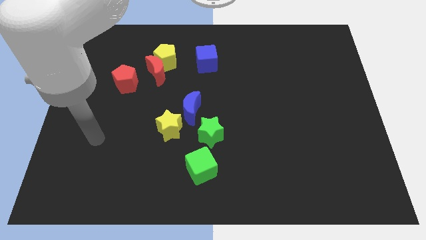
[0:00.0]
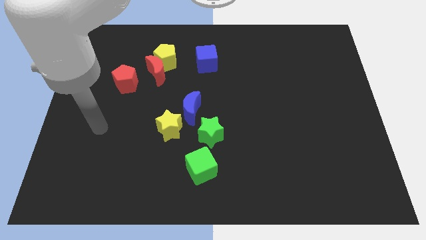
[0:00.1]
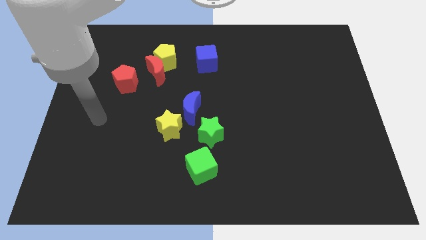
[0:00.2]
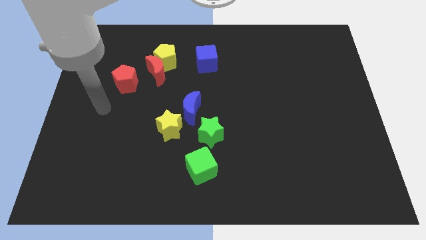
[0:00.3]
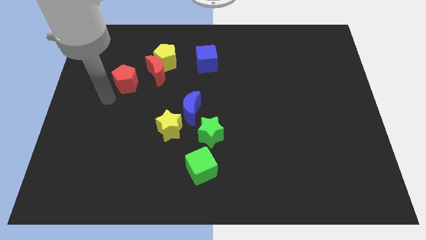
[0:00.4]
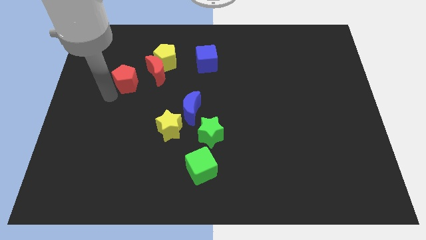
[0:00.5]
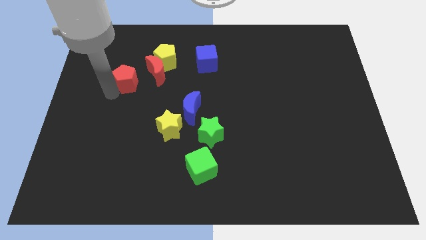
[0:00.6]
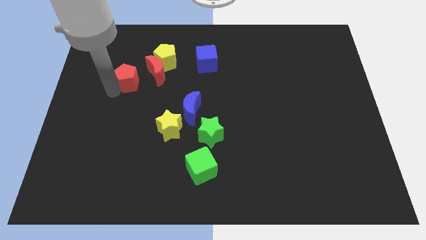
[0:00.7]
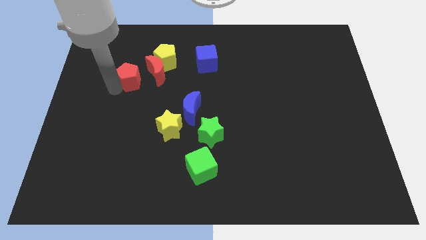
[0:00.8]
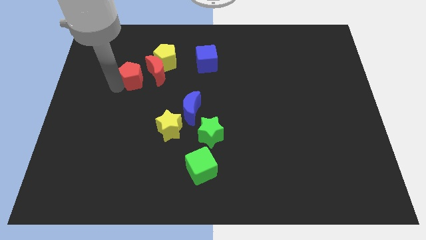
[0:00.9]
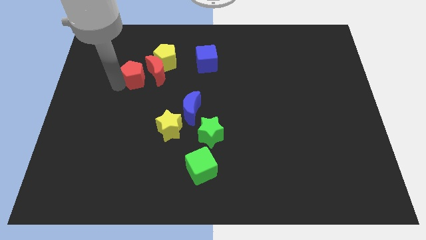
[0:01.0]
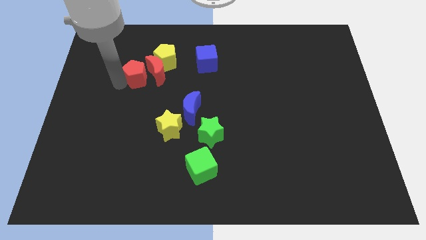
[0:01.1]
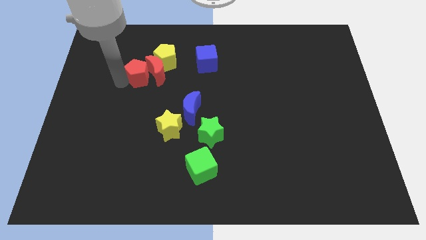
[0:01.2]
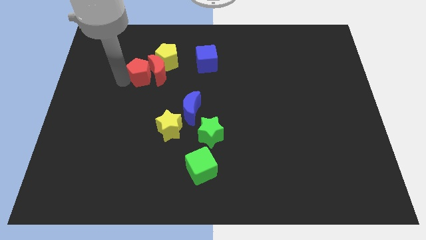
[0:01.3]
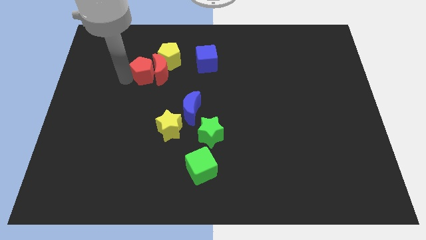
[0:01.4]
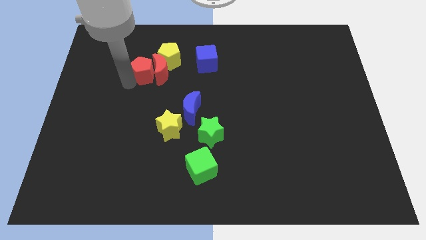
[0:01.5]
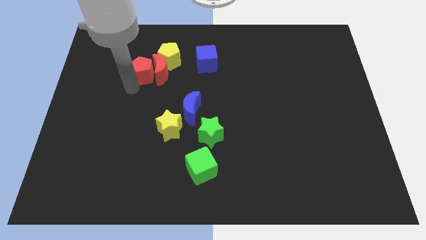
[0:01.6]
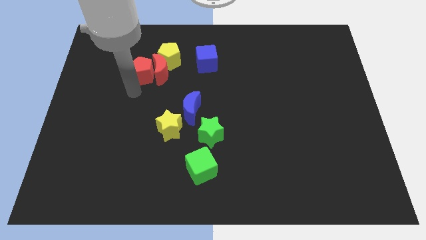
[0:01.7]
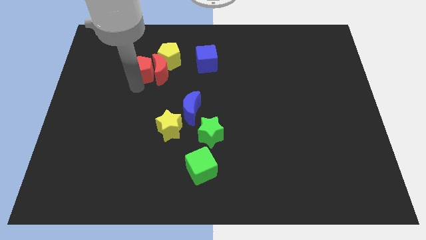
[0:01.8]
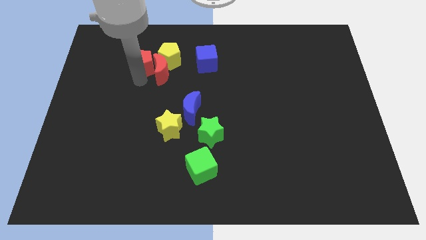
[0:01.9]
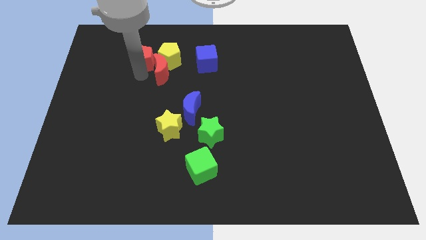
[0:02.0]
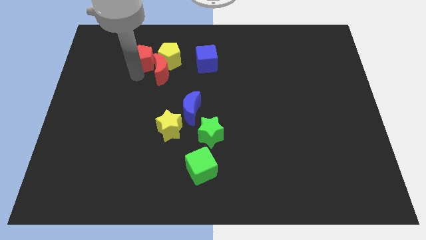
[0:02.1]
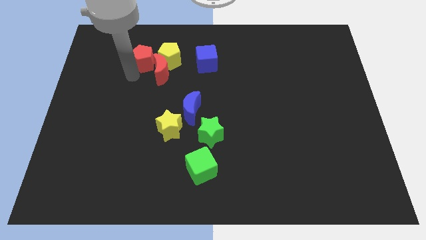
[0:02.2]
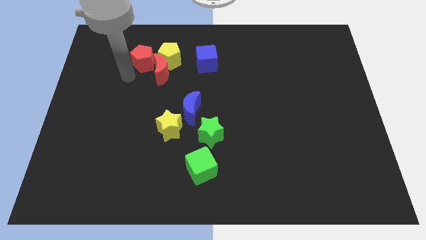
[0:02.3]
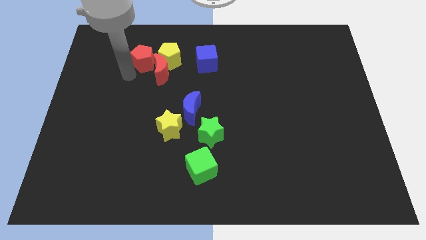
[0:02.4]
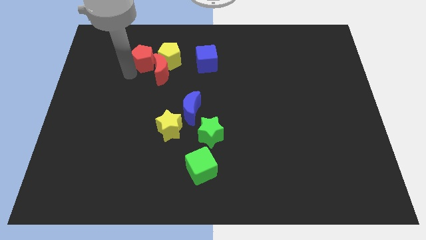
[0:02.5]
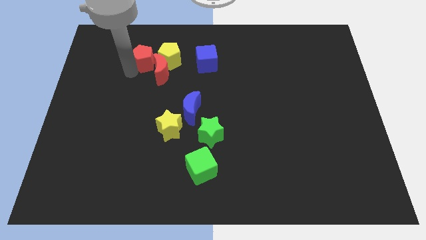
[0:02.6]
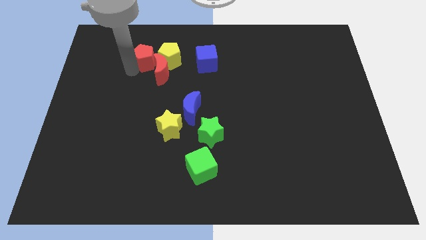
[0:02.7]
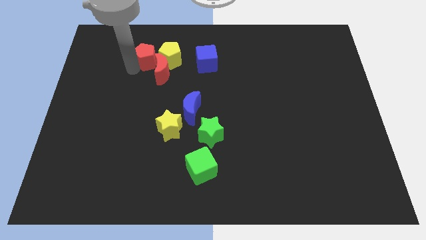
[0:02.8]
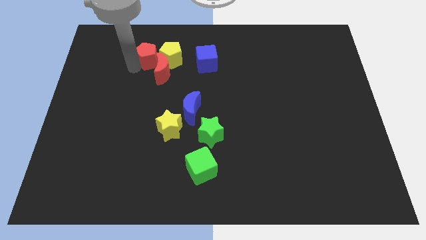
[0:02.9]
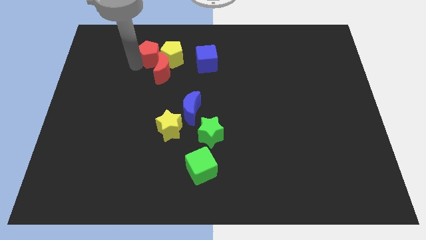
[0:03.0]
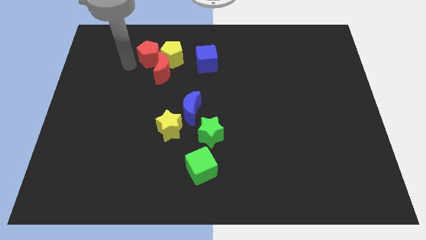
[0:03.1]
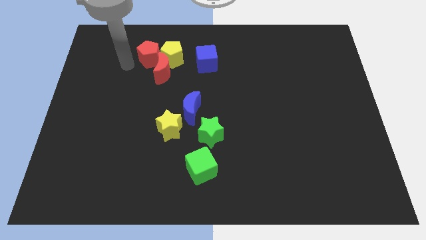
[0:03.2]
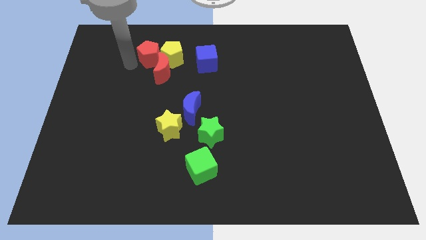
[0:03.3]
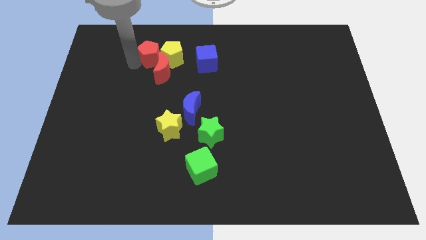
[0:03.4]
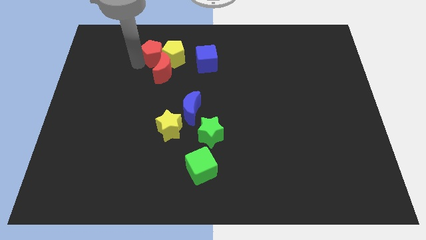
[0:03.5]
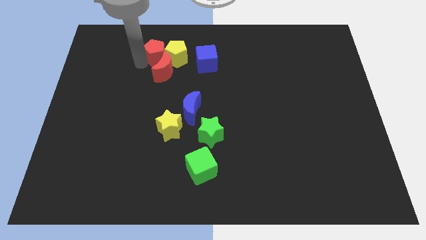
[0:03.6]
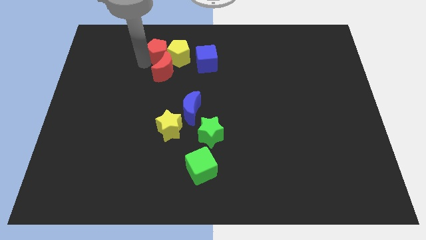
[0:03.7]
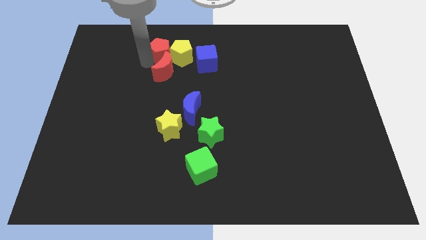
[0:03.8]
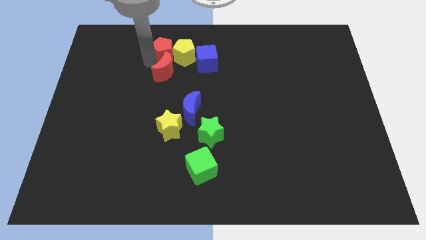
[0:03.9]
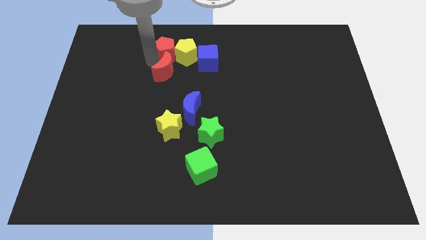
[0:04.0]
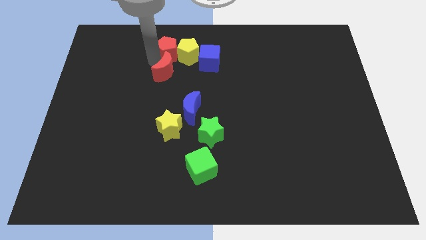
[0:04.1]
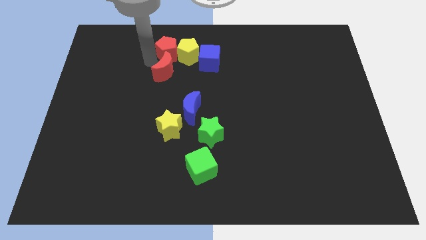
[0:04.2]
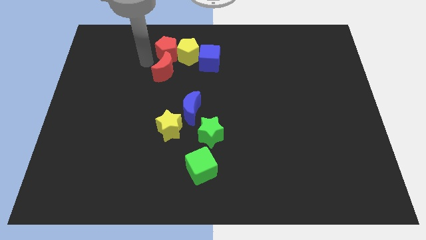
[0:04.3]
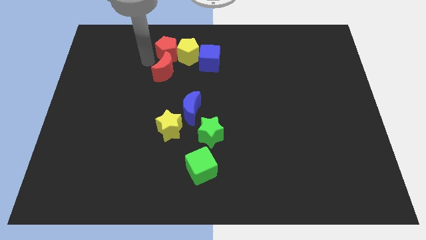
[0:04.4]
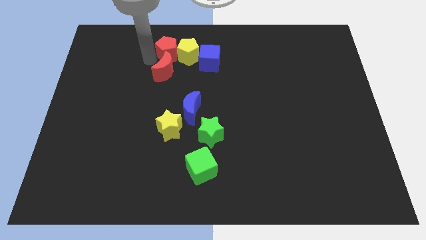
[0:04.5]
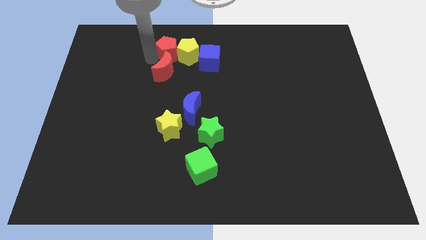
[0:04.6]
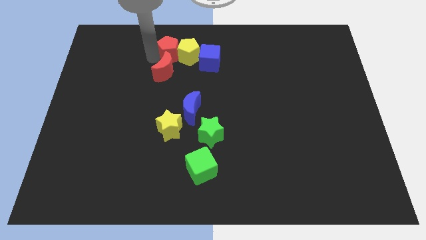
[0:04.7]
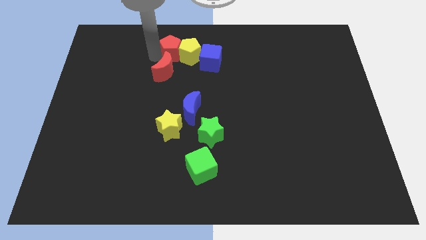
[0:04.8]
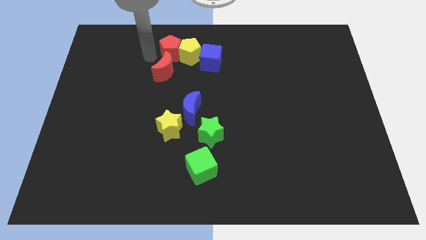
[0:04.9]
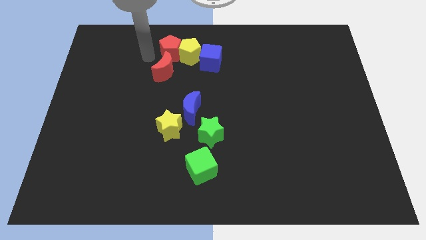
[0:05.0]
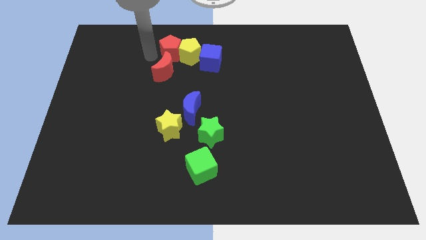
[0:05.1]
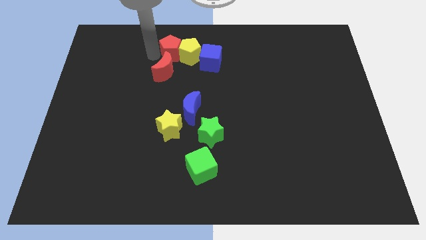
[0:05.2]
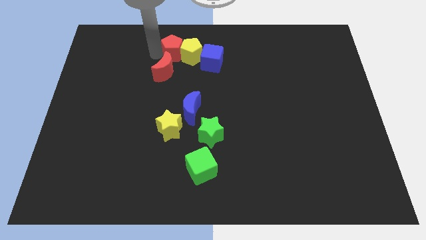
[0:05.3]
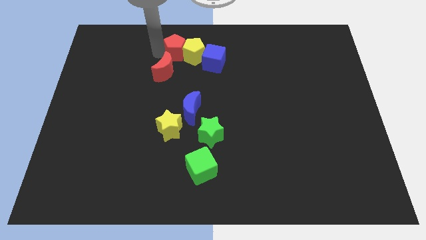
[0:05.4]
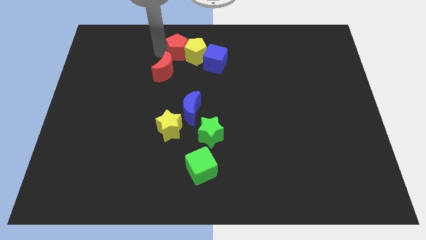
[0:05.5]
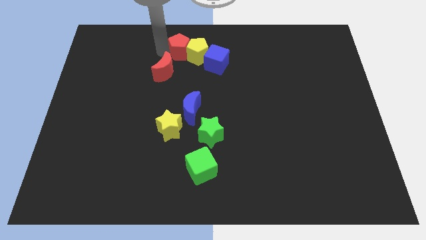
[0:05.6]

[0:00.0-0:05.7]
put the red pentagon to the top side

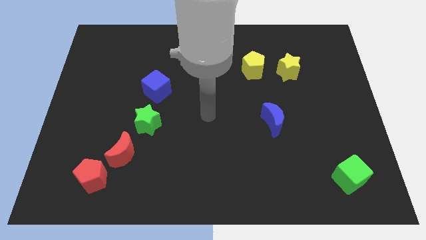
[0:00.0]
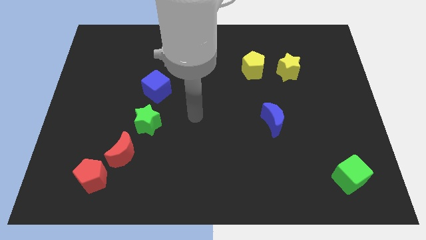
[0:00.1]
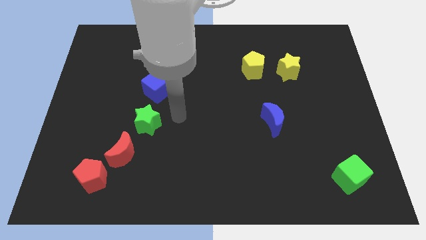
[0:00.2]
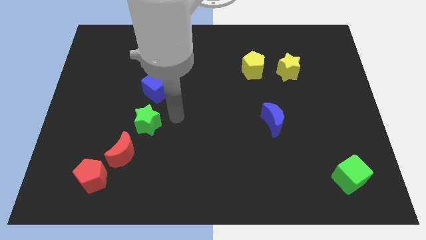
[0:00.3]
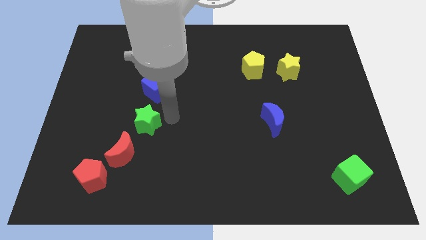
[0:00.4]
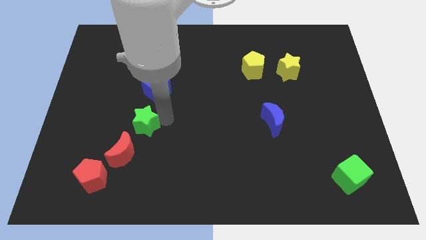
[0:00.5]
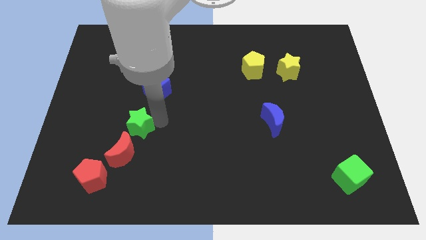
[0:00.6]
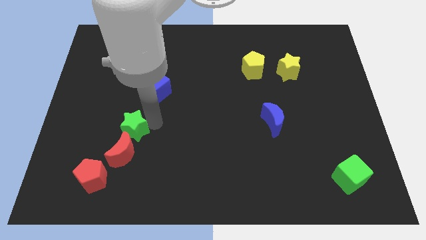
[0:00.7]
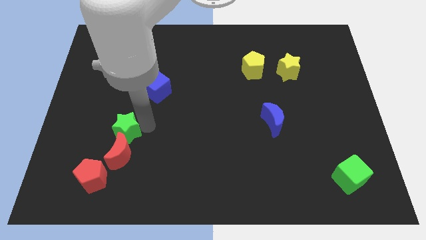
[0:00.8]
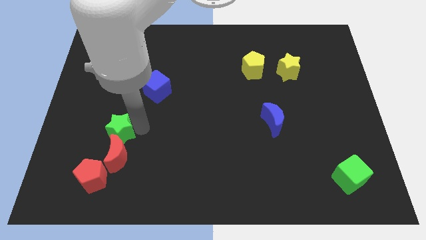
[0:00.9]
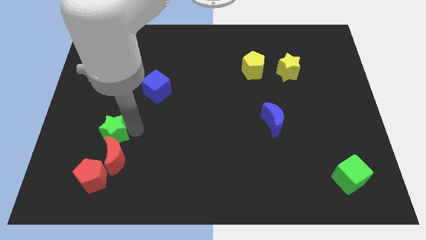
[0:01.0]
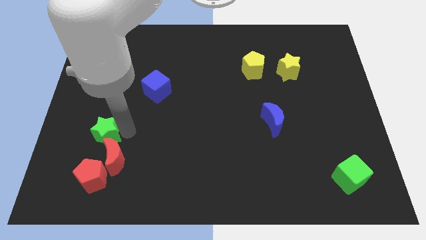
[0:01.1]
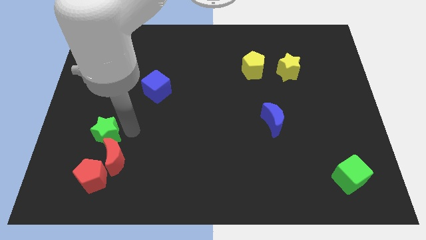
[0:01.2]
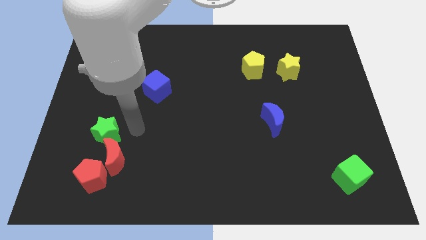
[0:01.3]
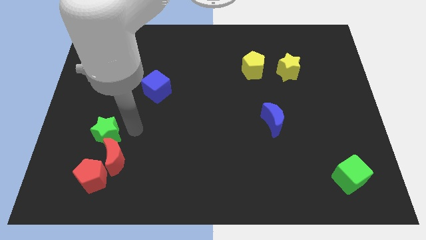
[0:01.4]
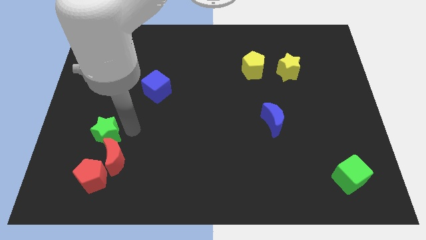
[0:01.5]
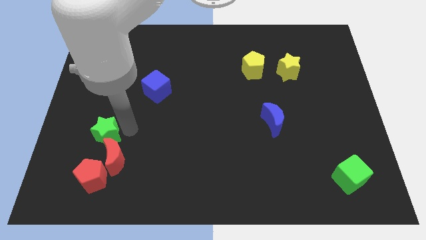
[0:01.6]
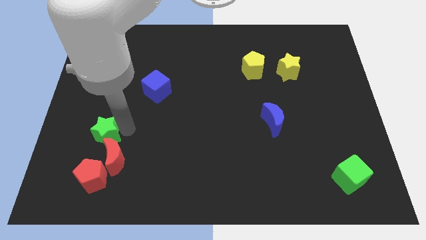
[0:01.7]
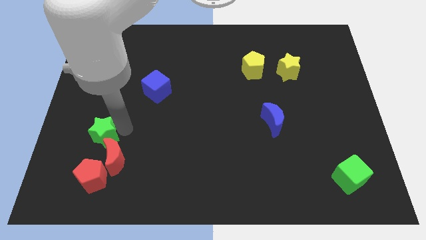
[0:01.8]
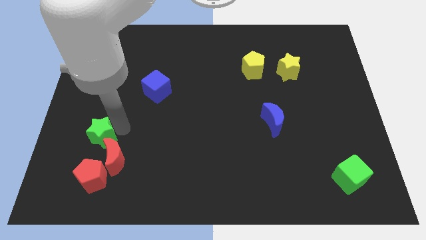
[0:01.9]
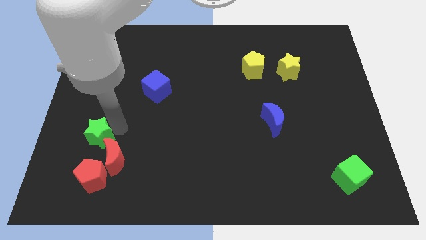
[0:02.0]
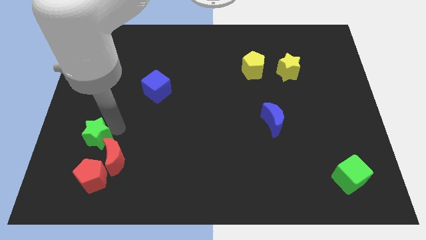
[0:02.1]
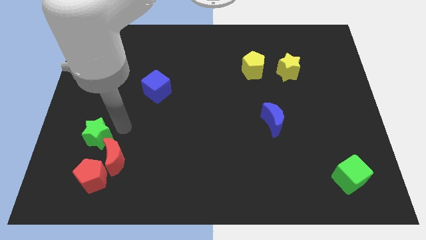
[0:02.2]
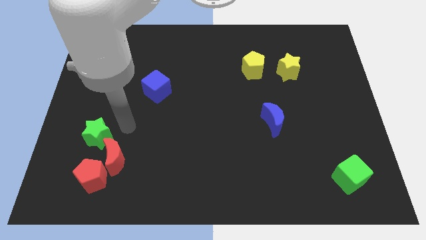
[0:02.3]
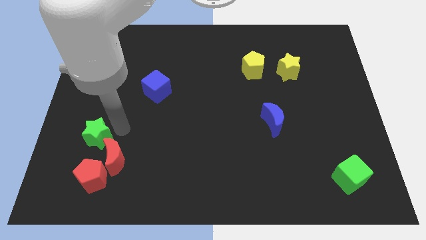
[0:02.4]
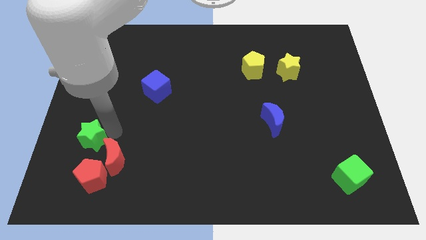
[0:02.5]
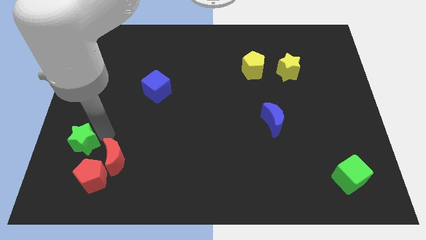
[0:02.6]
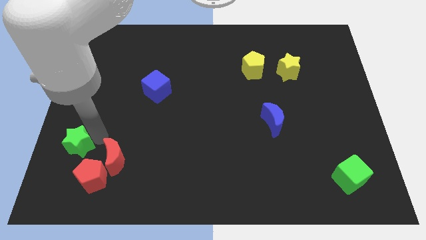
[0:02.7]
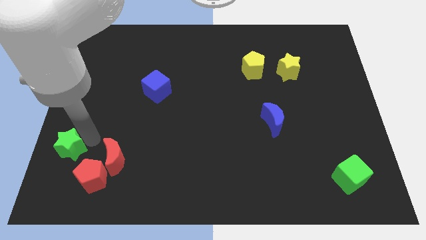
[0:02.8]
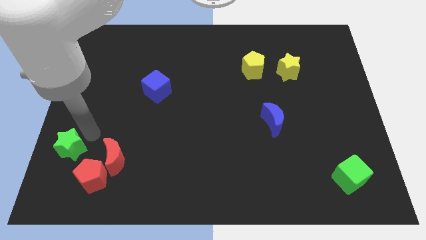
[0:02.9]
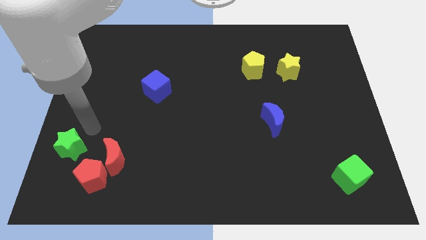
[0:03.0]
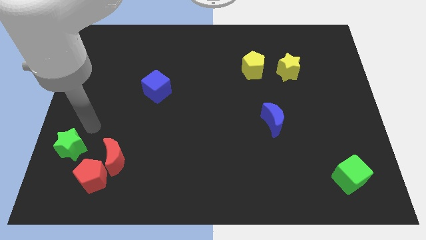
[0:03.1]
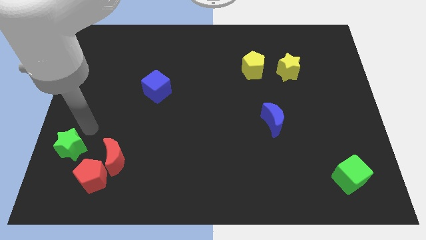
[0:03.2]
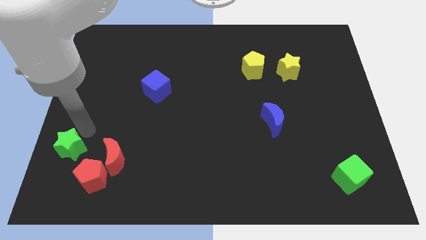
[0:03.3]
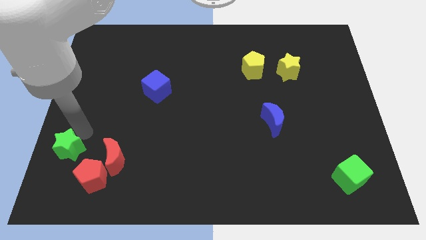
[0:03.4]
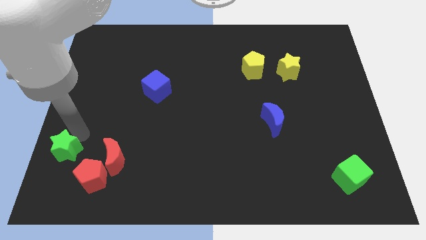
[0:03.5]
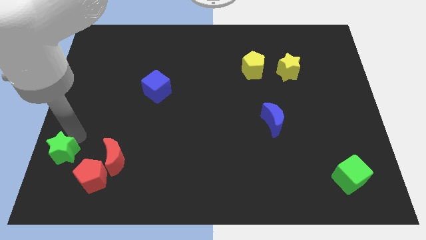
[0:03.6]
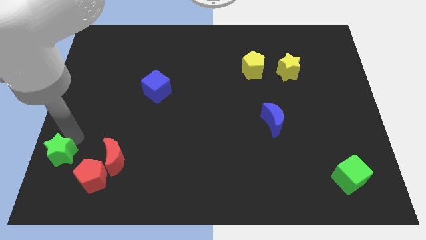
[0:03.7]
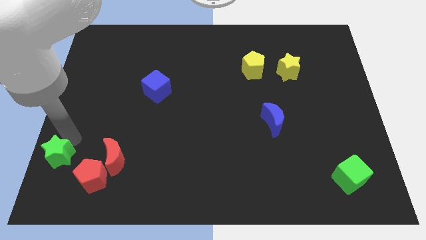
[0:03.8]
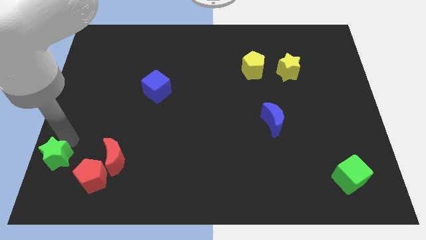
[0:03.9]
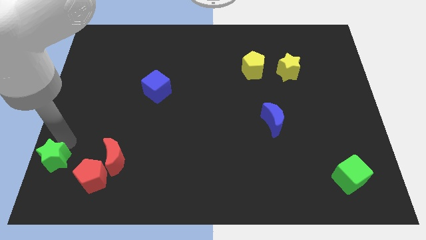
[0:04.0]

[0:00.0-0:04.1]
put the green star to the lower left corner
